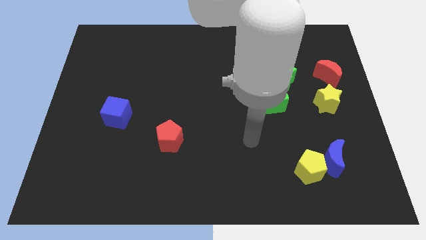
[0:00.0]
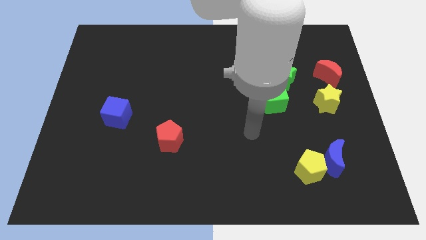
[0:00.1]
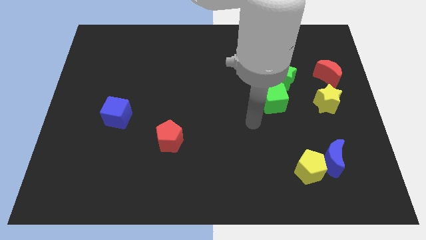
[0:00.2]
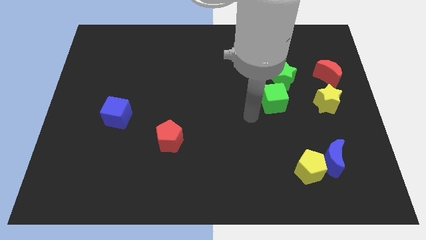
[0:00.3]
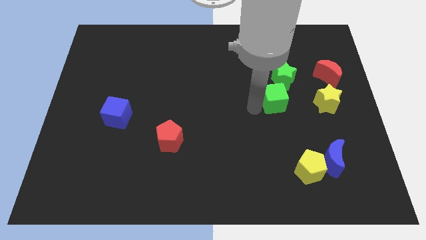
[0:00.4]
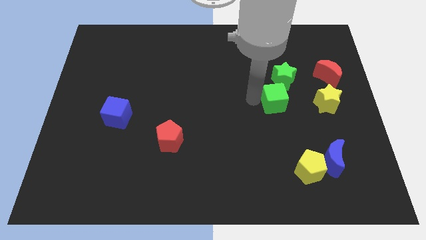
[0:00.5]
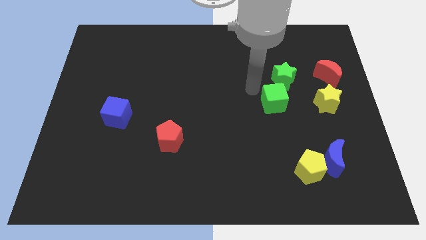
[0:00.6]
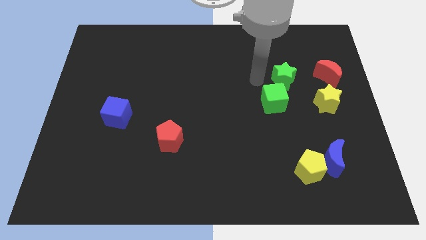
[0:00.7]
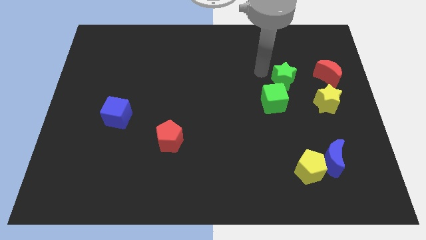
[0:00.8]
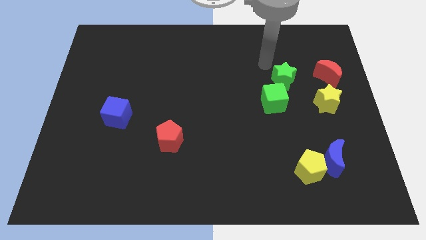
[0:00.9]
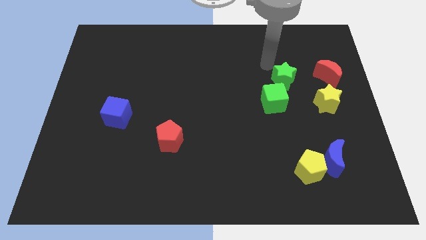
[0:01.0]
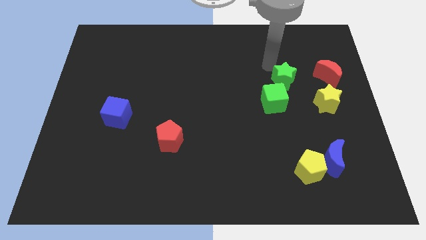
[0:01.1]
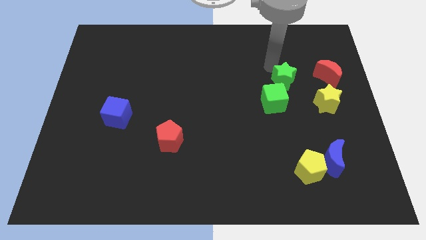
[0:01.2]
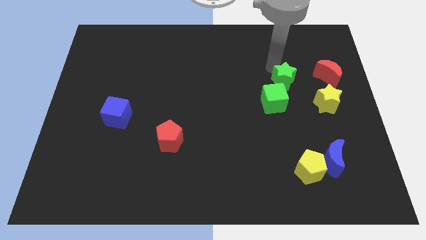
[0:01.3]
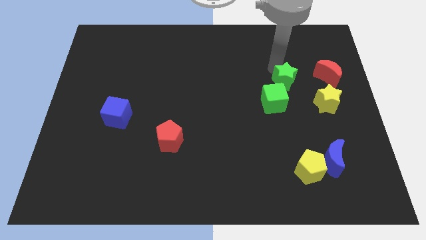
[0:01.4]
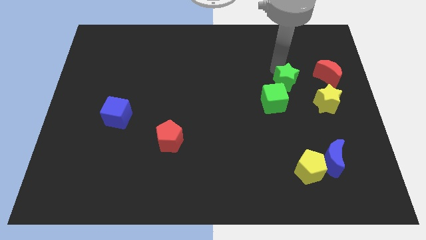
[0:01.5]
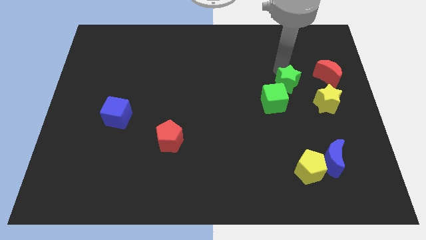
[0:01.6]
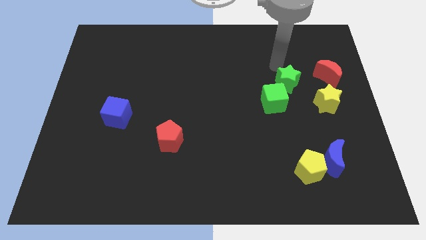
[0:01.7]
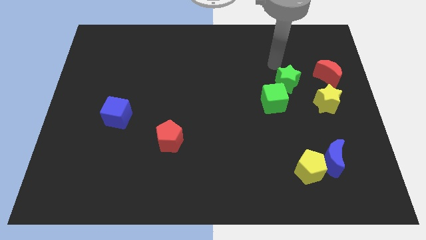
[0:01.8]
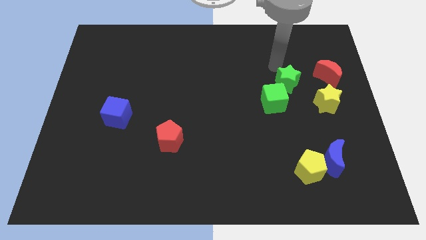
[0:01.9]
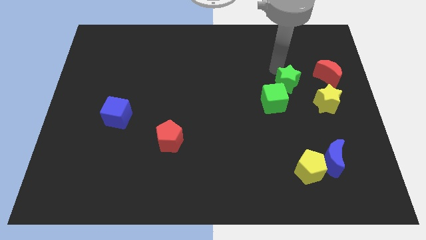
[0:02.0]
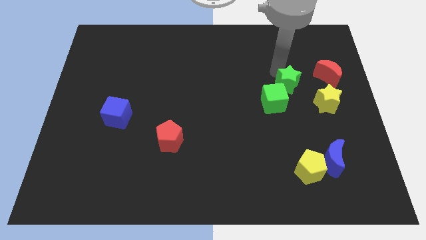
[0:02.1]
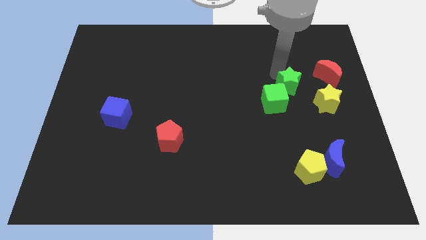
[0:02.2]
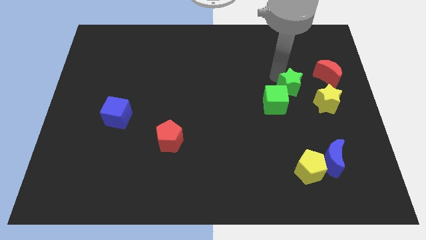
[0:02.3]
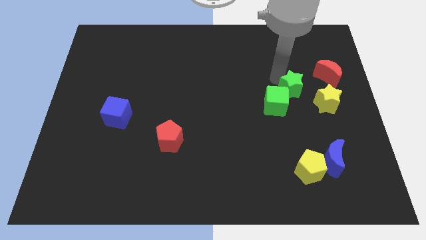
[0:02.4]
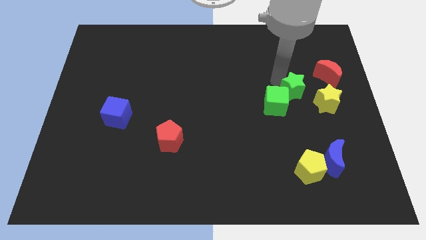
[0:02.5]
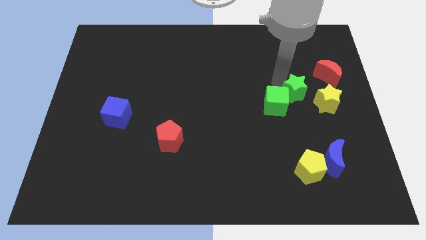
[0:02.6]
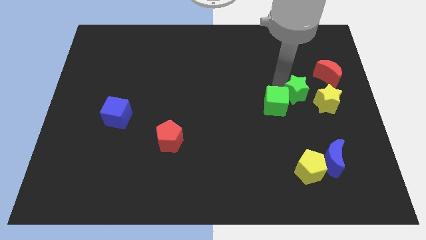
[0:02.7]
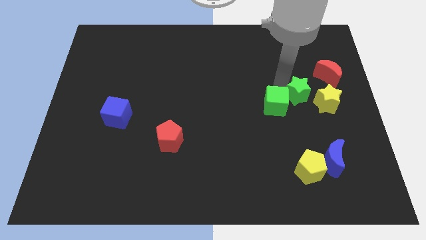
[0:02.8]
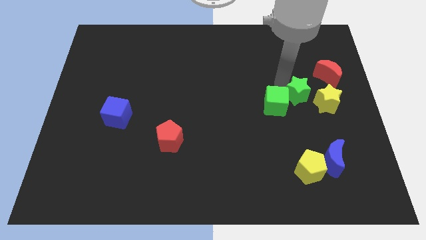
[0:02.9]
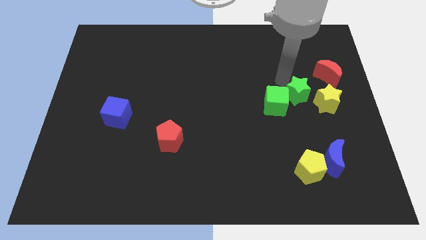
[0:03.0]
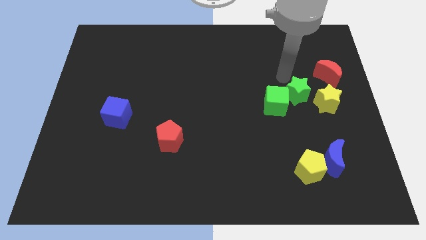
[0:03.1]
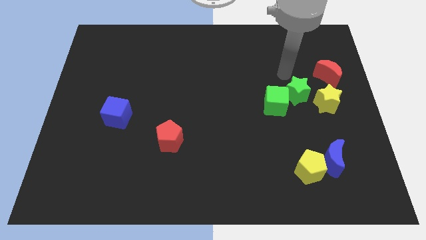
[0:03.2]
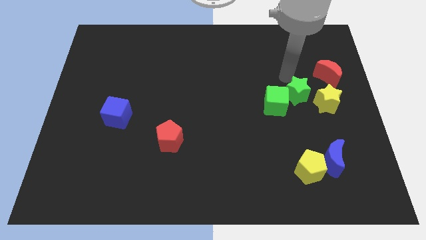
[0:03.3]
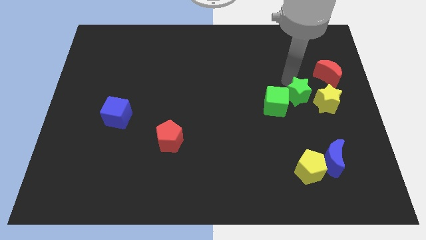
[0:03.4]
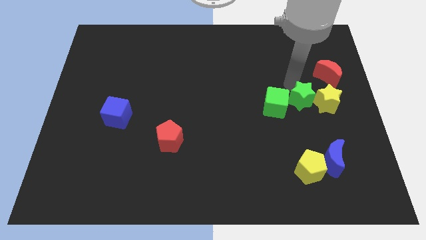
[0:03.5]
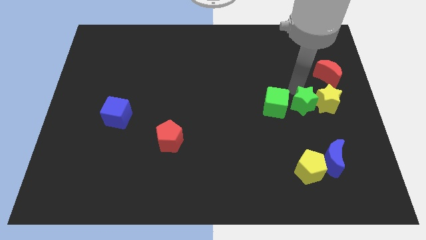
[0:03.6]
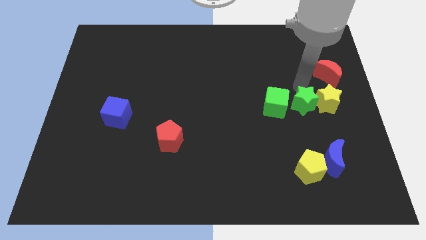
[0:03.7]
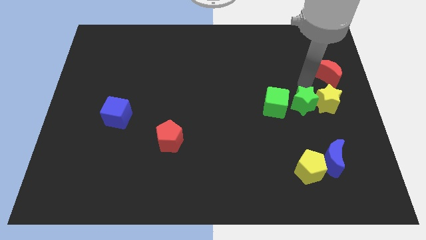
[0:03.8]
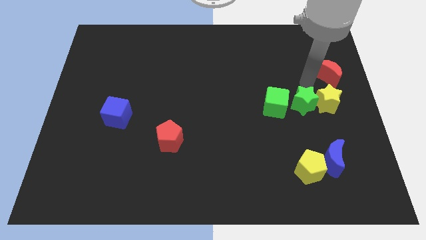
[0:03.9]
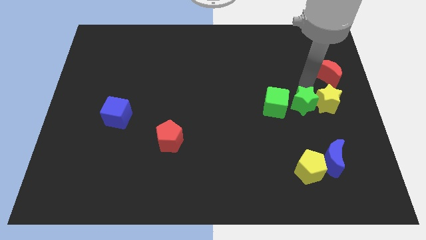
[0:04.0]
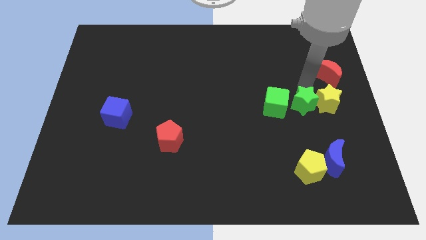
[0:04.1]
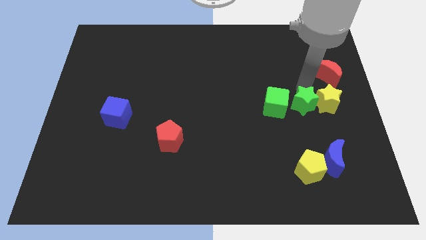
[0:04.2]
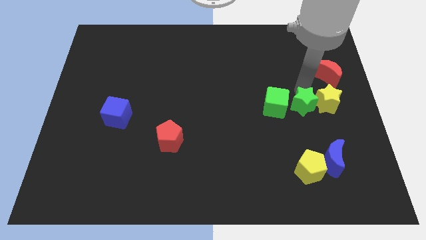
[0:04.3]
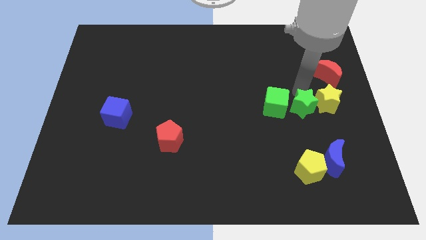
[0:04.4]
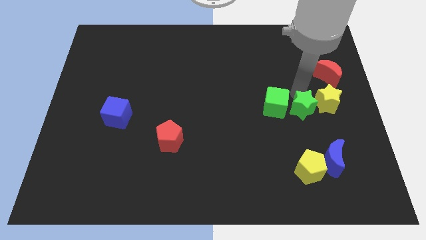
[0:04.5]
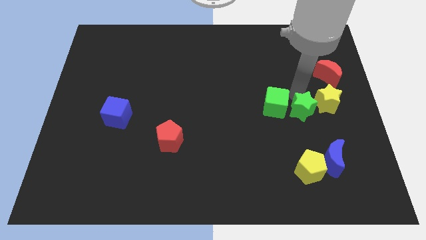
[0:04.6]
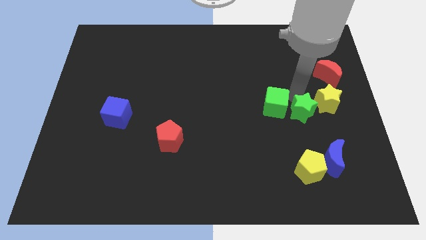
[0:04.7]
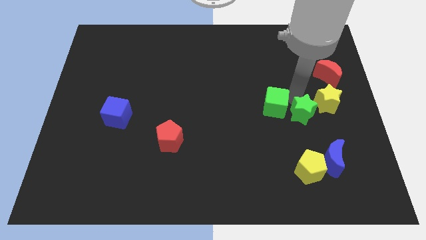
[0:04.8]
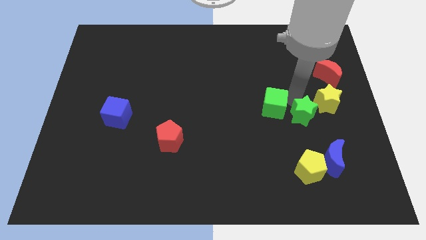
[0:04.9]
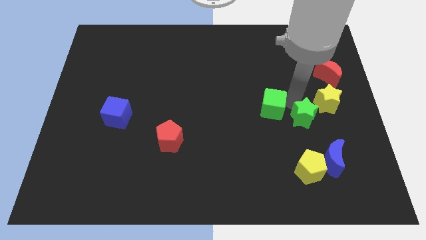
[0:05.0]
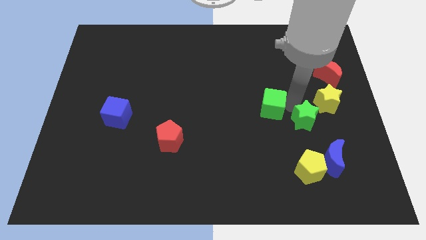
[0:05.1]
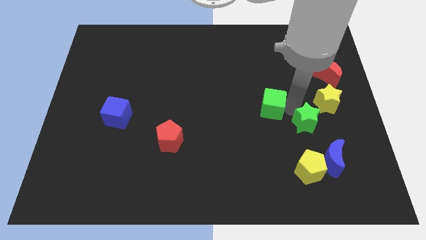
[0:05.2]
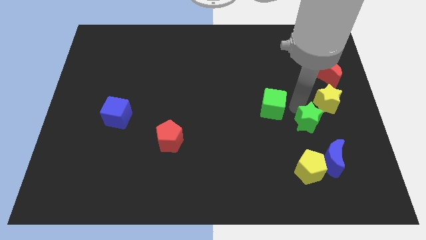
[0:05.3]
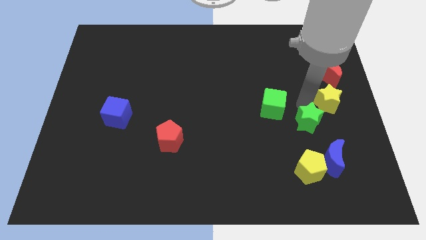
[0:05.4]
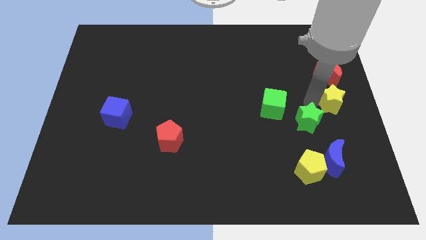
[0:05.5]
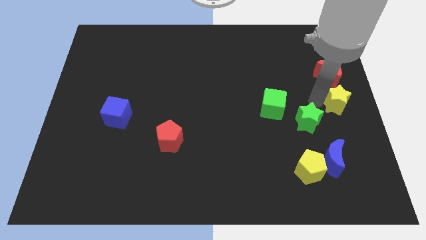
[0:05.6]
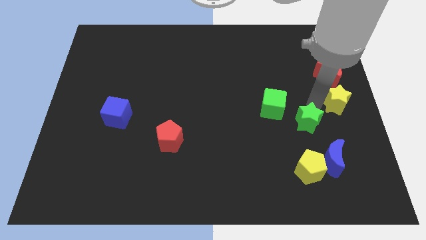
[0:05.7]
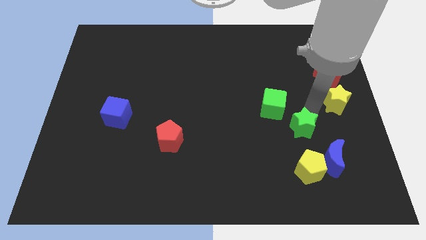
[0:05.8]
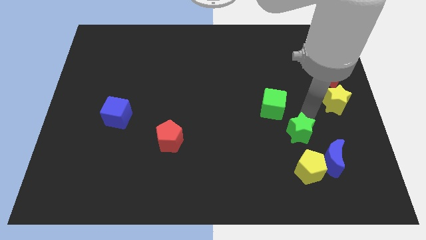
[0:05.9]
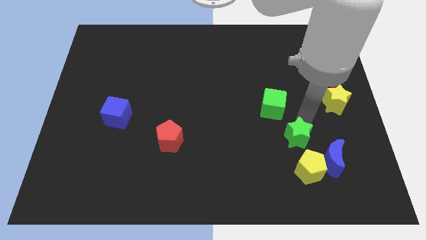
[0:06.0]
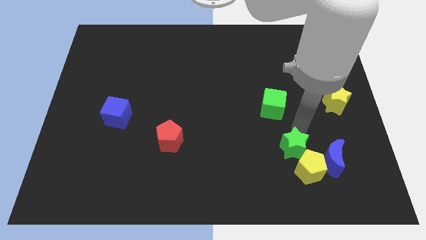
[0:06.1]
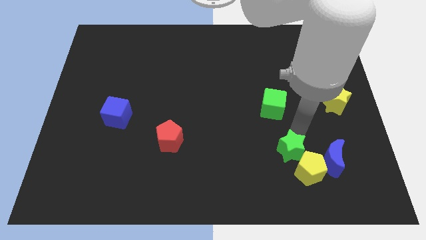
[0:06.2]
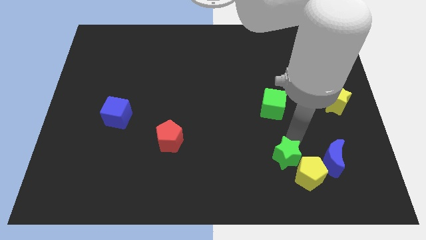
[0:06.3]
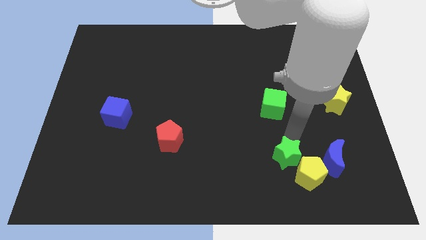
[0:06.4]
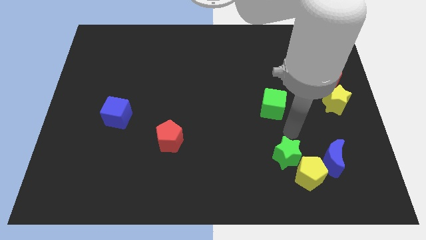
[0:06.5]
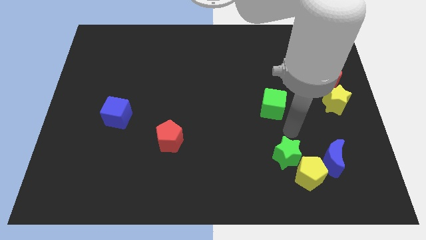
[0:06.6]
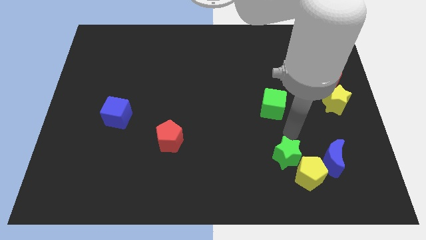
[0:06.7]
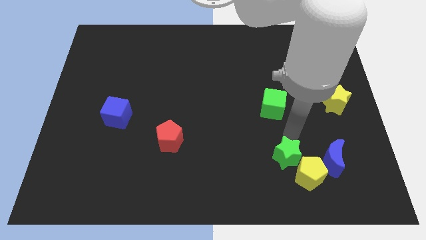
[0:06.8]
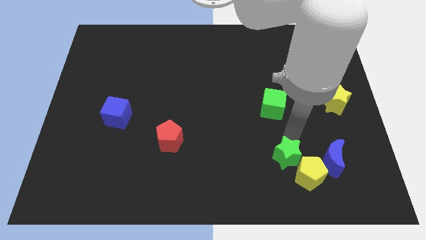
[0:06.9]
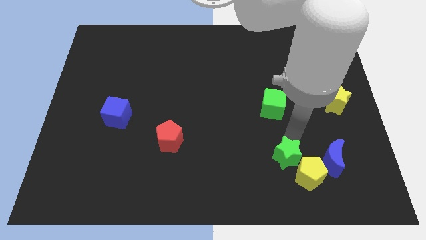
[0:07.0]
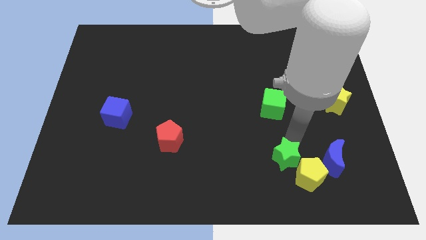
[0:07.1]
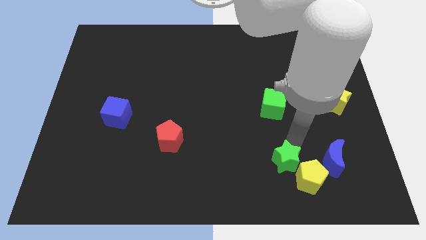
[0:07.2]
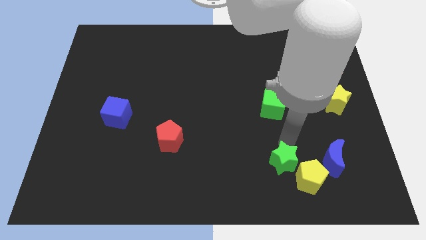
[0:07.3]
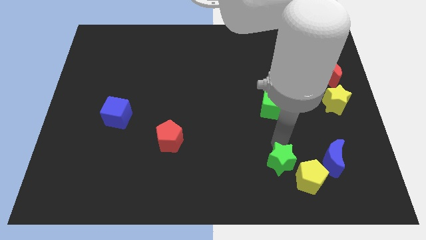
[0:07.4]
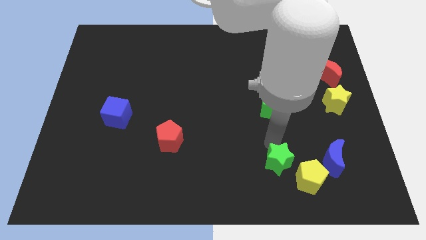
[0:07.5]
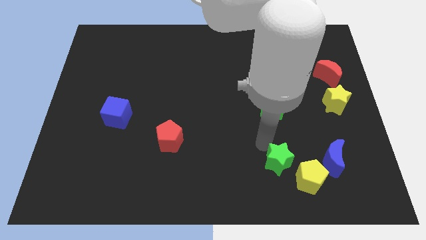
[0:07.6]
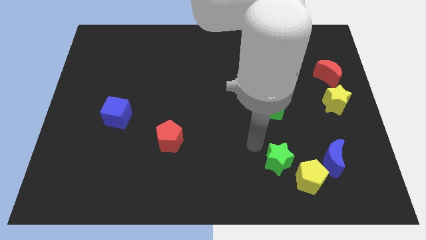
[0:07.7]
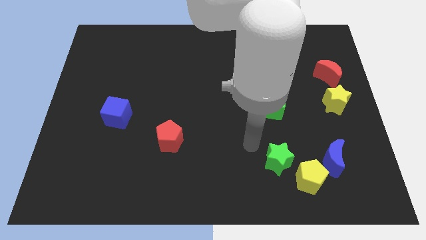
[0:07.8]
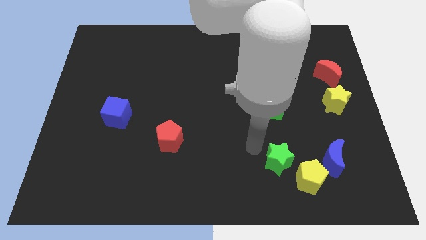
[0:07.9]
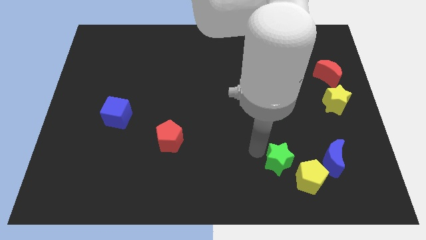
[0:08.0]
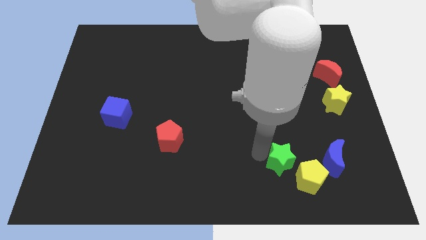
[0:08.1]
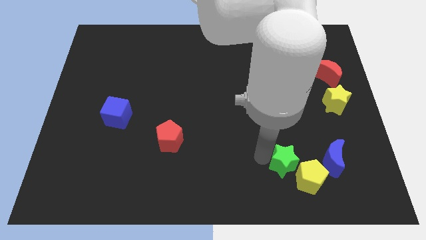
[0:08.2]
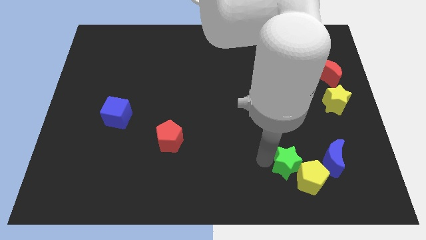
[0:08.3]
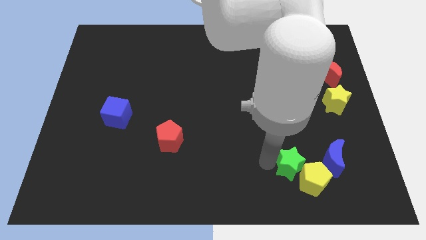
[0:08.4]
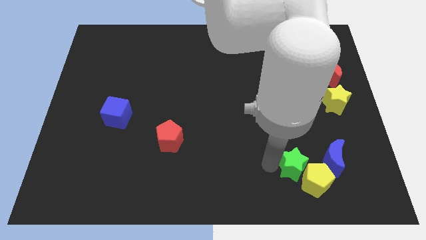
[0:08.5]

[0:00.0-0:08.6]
push the green star diagonally down and to the left of the blue moon
